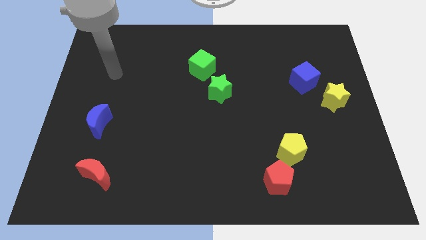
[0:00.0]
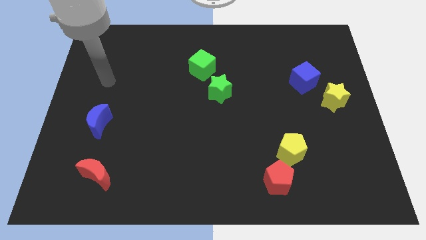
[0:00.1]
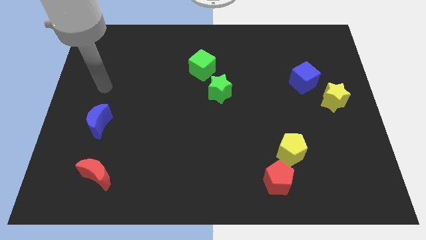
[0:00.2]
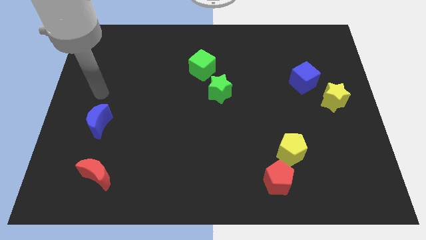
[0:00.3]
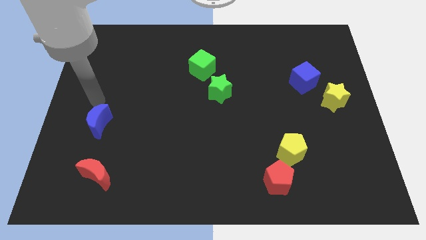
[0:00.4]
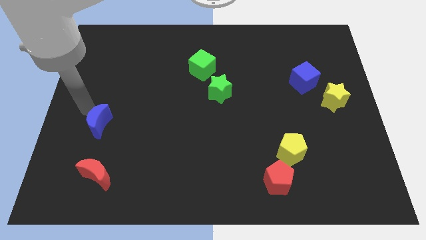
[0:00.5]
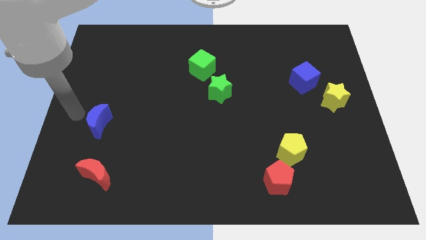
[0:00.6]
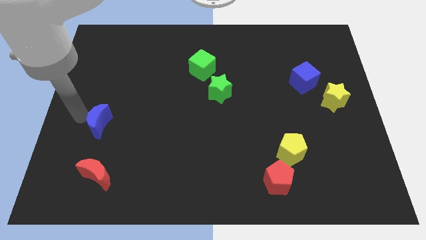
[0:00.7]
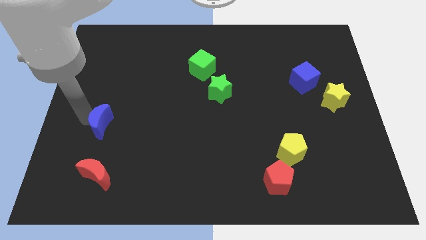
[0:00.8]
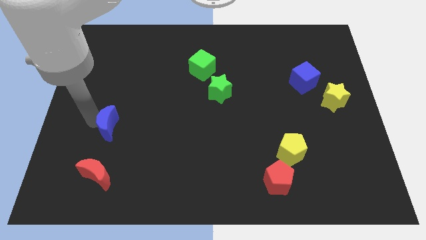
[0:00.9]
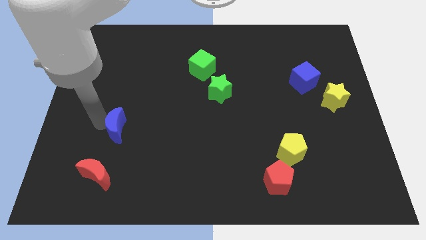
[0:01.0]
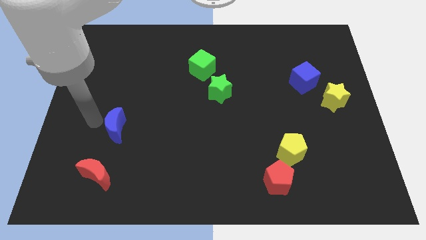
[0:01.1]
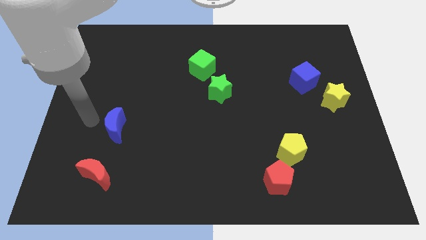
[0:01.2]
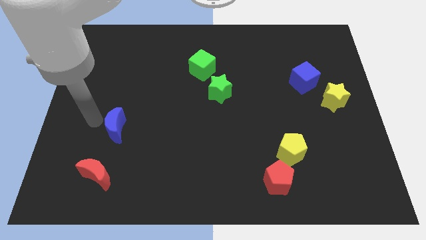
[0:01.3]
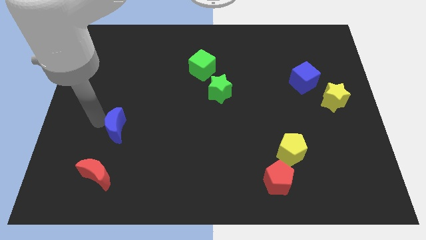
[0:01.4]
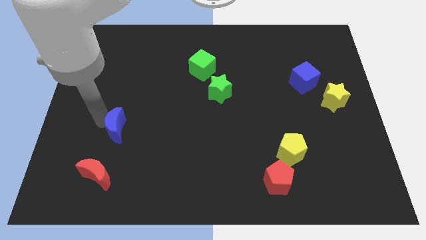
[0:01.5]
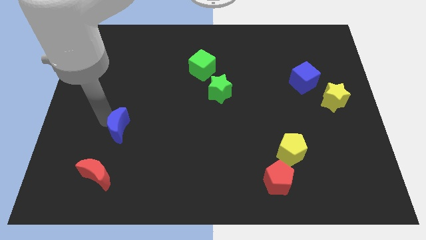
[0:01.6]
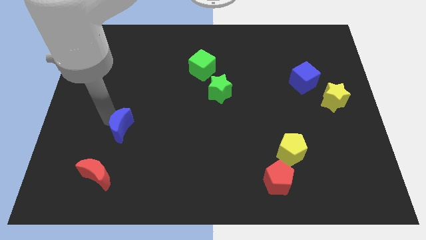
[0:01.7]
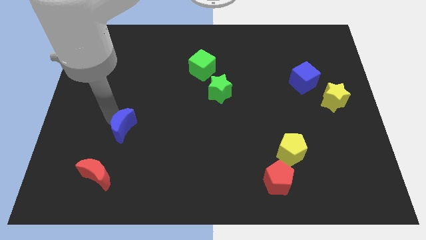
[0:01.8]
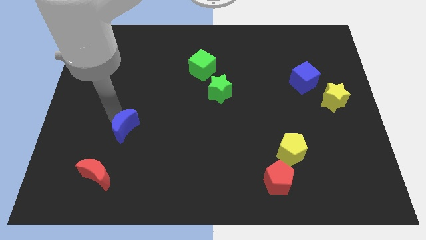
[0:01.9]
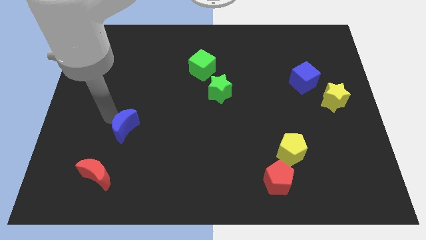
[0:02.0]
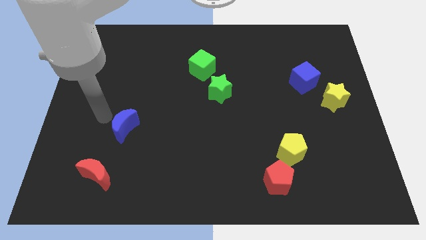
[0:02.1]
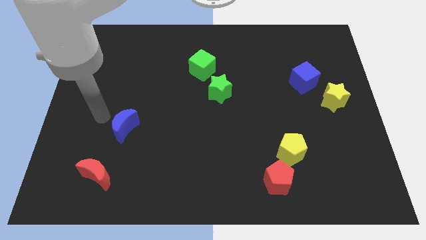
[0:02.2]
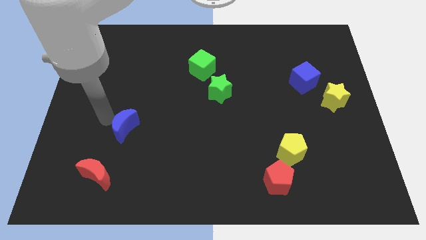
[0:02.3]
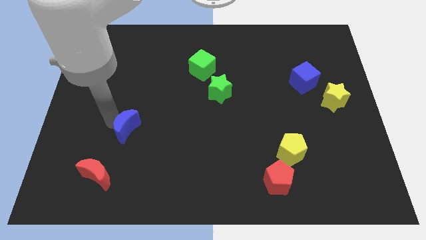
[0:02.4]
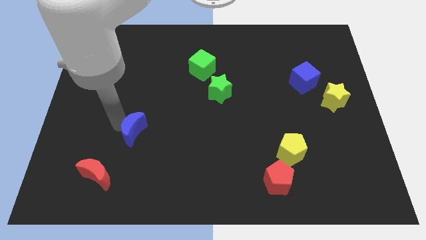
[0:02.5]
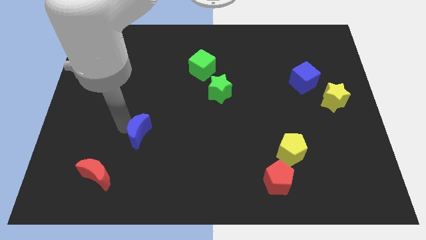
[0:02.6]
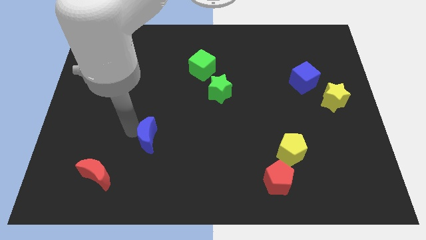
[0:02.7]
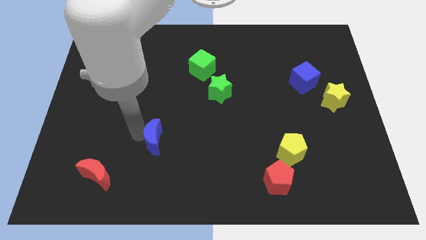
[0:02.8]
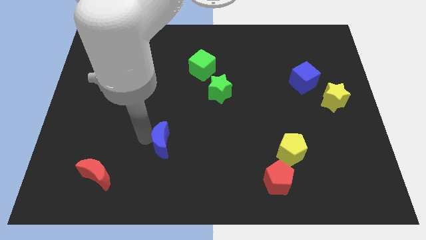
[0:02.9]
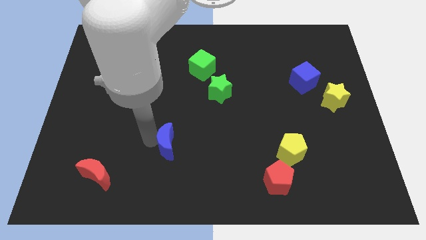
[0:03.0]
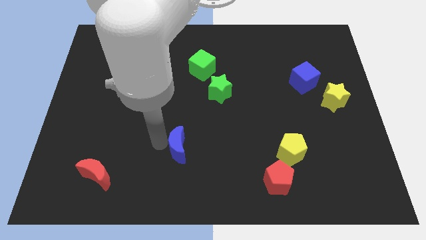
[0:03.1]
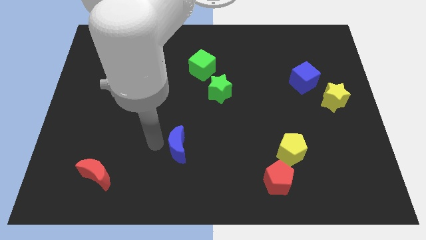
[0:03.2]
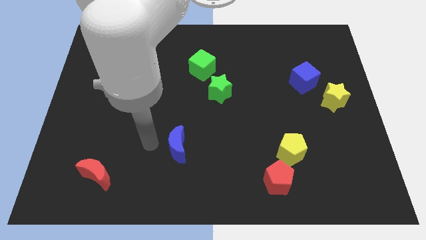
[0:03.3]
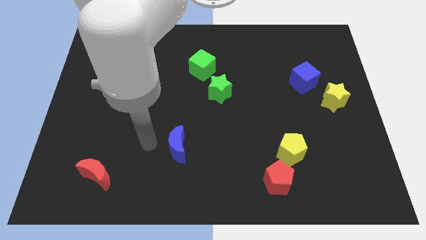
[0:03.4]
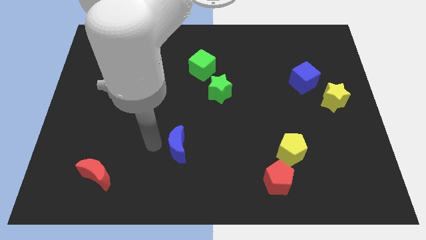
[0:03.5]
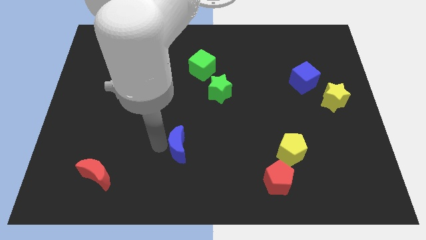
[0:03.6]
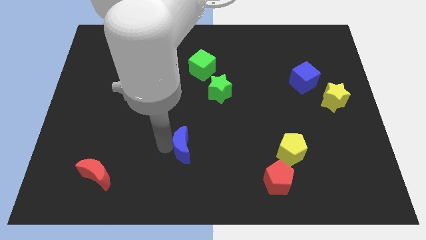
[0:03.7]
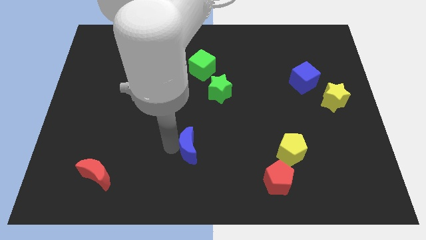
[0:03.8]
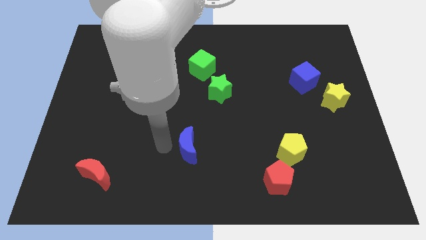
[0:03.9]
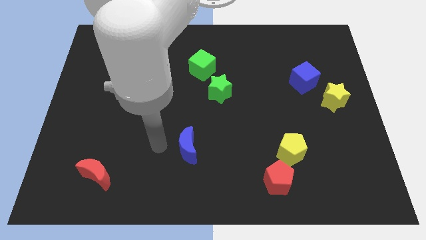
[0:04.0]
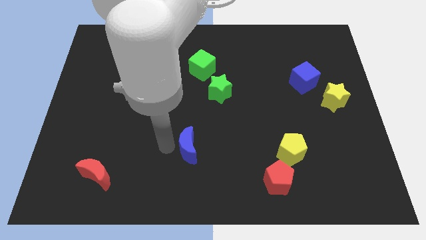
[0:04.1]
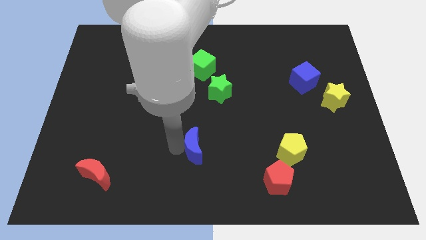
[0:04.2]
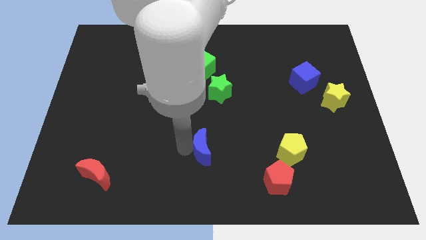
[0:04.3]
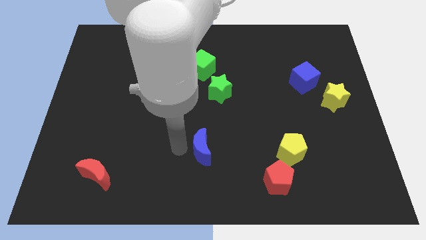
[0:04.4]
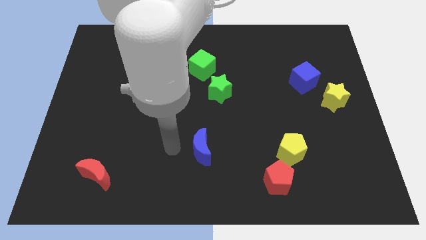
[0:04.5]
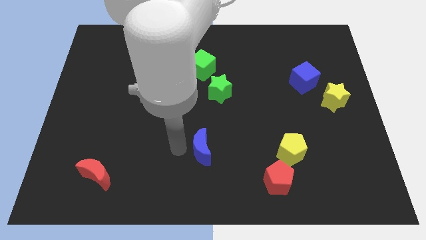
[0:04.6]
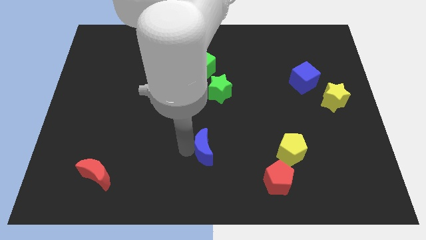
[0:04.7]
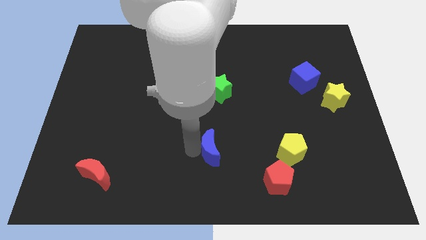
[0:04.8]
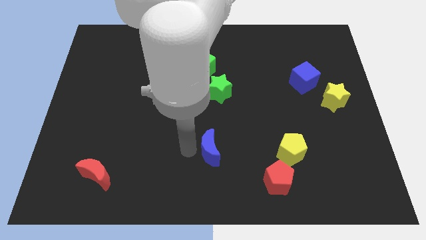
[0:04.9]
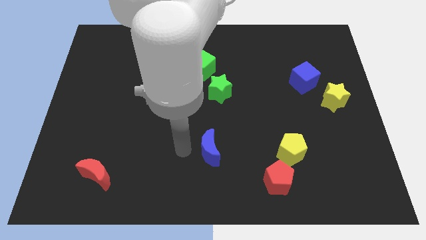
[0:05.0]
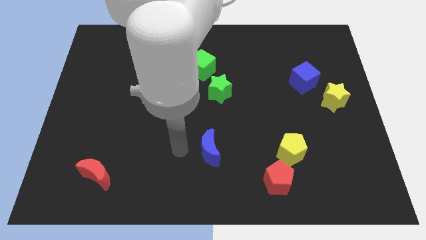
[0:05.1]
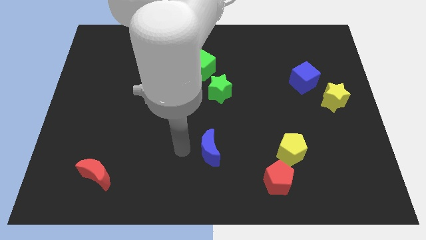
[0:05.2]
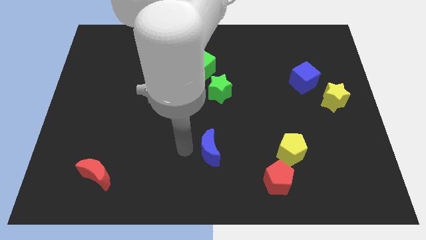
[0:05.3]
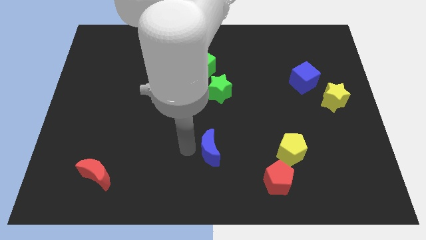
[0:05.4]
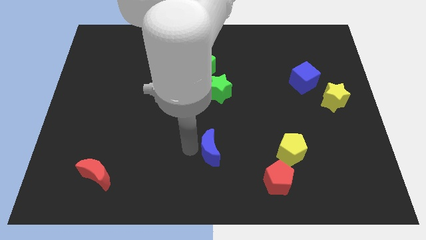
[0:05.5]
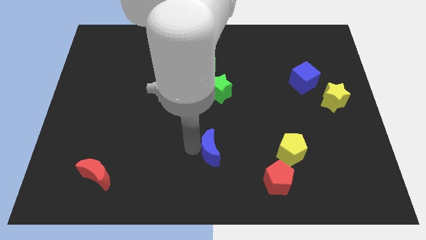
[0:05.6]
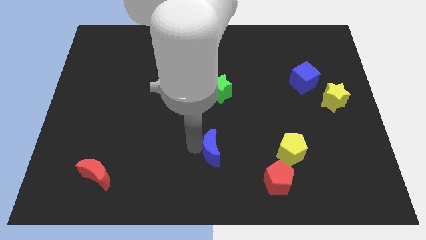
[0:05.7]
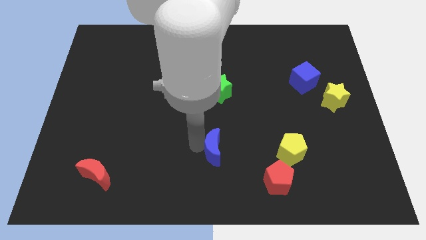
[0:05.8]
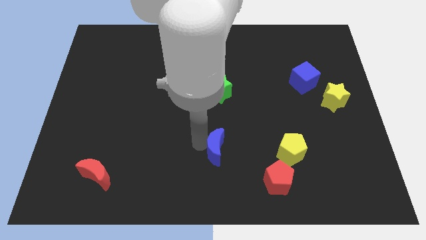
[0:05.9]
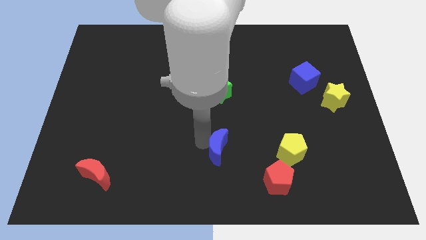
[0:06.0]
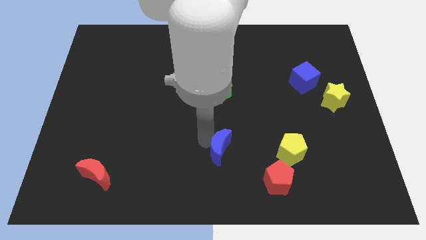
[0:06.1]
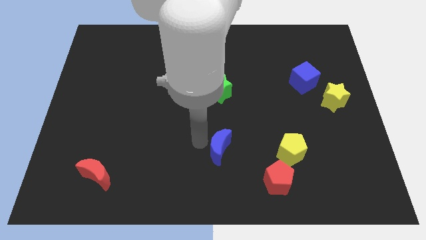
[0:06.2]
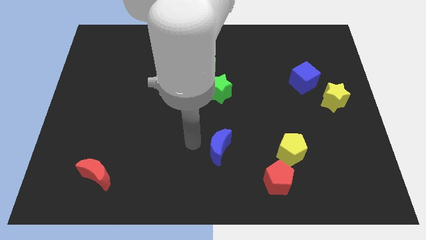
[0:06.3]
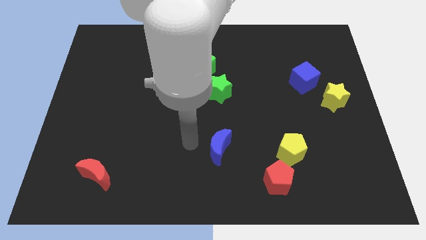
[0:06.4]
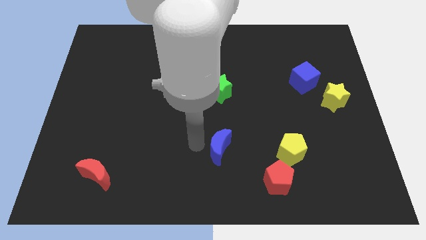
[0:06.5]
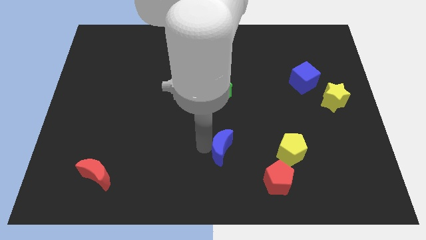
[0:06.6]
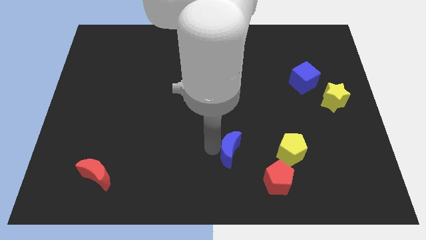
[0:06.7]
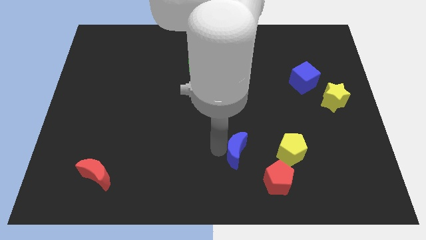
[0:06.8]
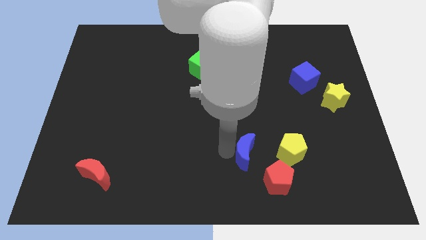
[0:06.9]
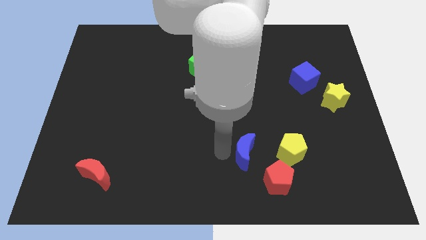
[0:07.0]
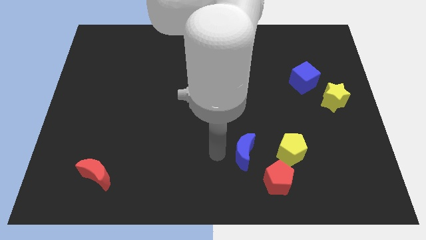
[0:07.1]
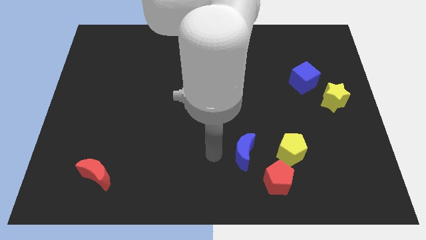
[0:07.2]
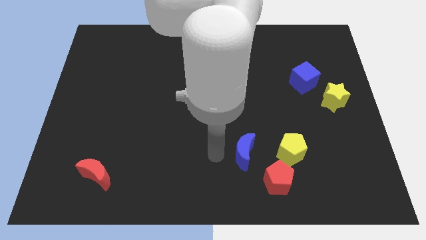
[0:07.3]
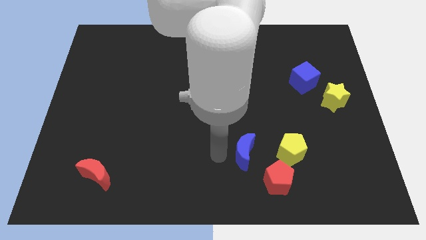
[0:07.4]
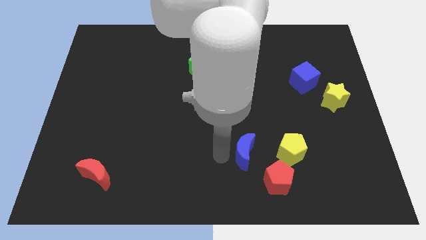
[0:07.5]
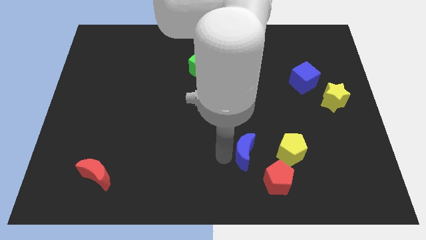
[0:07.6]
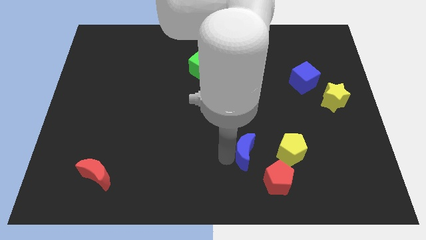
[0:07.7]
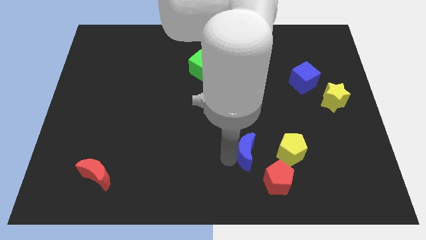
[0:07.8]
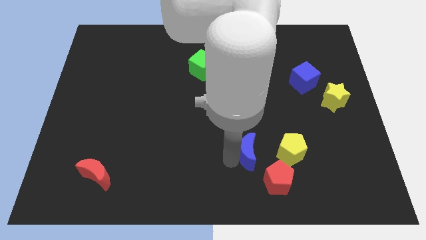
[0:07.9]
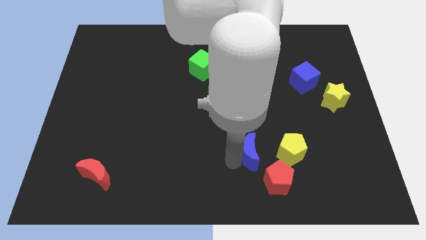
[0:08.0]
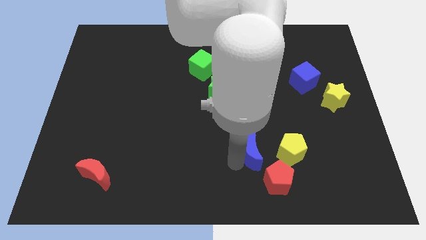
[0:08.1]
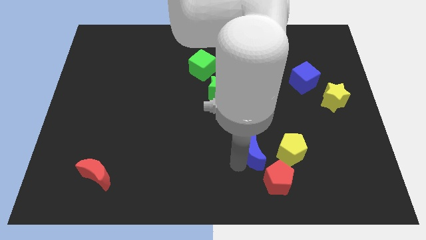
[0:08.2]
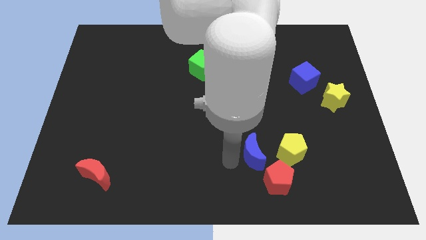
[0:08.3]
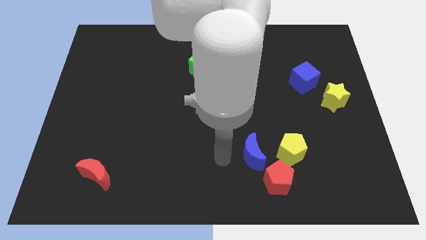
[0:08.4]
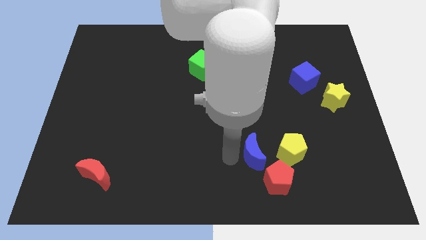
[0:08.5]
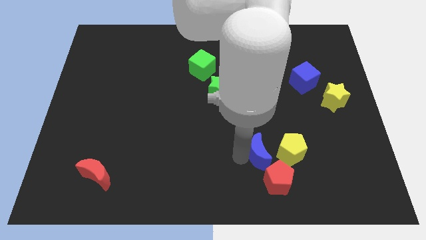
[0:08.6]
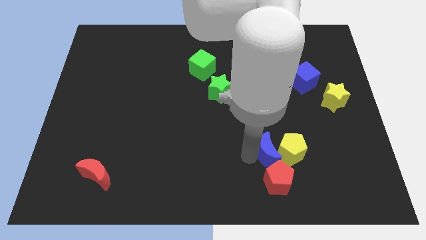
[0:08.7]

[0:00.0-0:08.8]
put the blue moon towards the yellow pentagon
